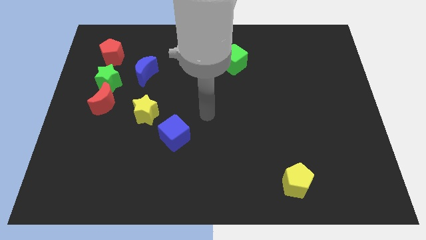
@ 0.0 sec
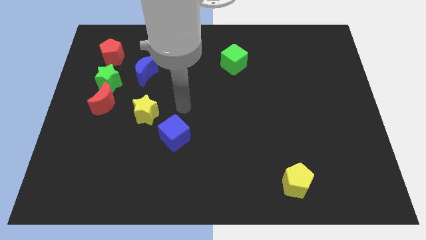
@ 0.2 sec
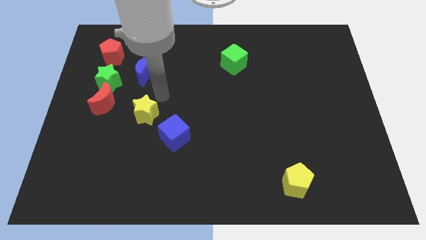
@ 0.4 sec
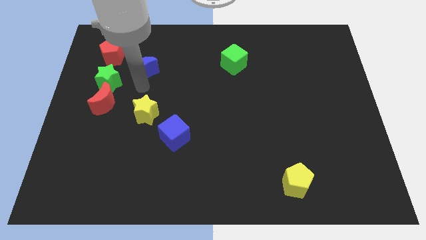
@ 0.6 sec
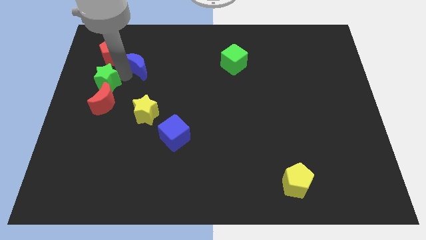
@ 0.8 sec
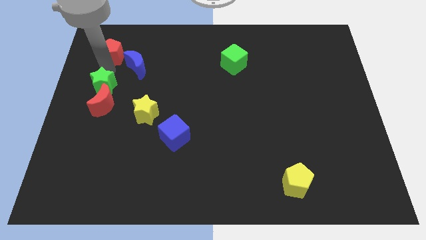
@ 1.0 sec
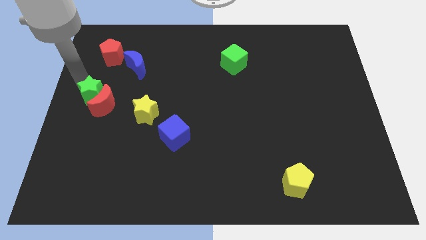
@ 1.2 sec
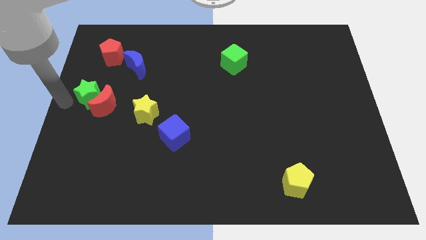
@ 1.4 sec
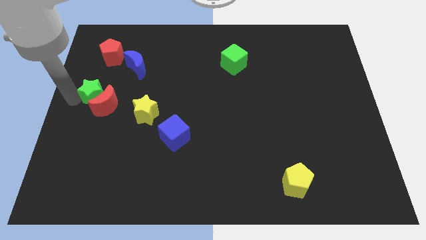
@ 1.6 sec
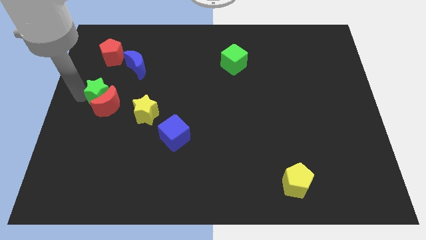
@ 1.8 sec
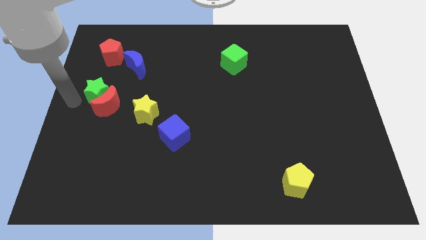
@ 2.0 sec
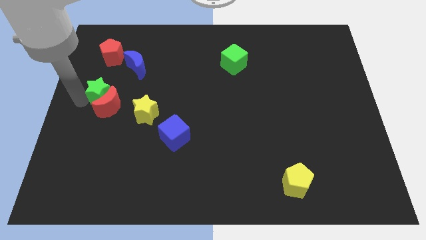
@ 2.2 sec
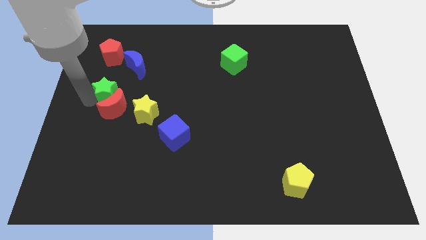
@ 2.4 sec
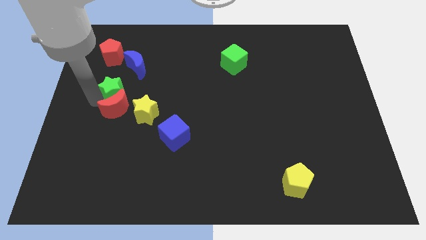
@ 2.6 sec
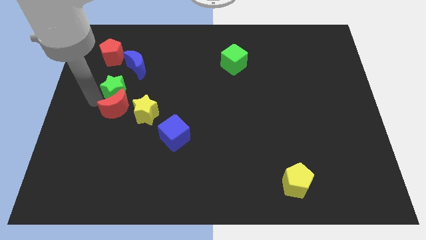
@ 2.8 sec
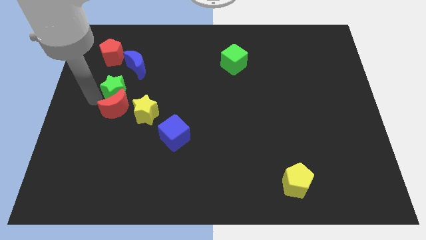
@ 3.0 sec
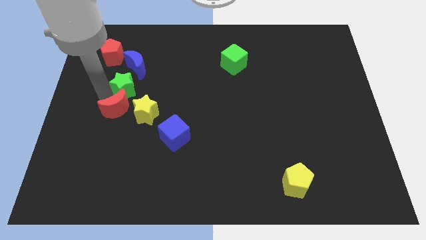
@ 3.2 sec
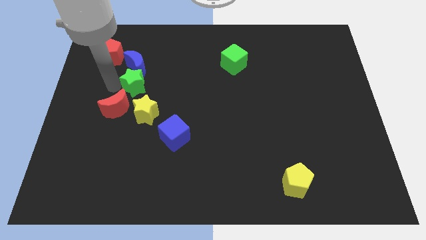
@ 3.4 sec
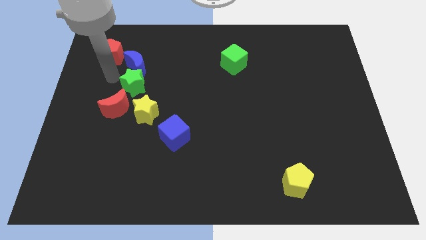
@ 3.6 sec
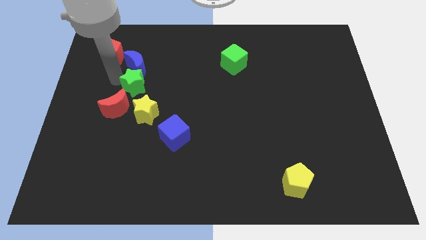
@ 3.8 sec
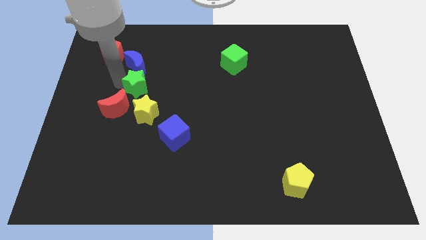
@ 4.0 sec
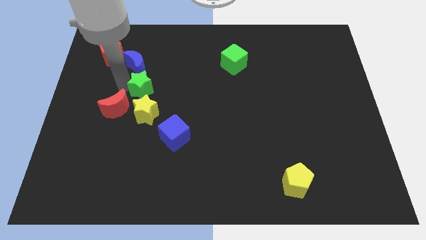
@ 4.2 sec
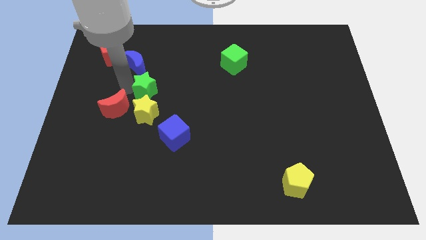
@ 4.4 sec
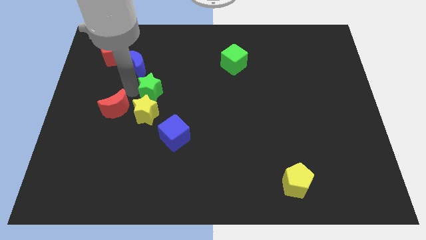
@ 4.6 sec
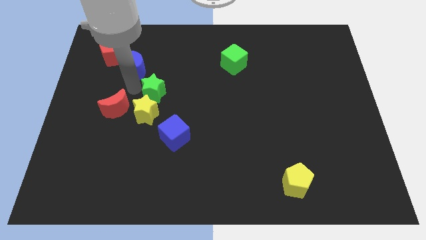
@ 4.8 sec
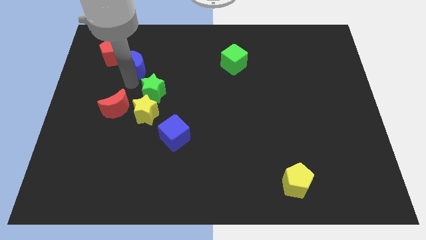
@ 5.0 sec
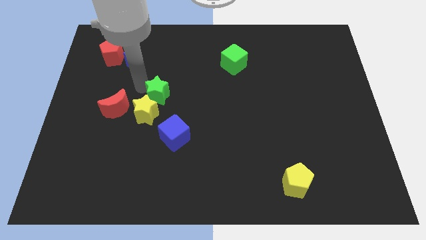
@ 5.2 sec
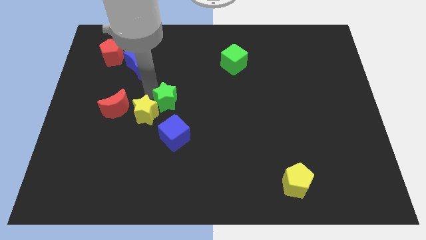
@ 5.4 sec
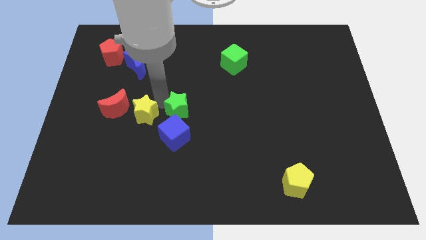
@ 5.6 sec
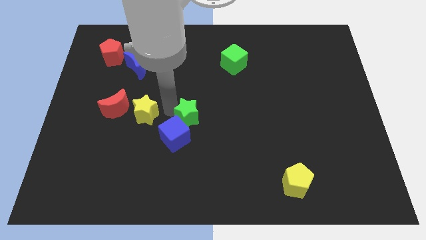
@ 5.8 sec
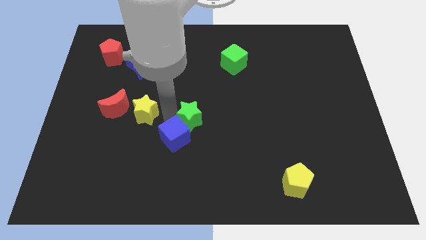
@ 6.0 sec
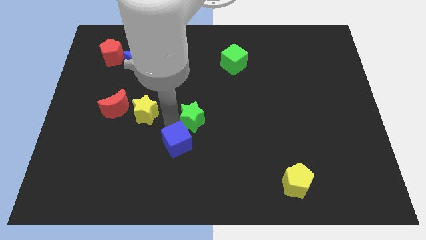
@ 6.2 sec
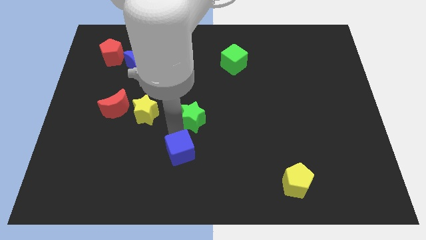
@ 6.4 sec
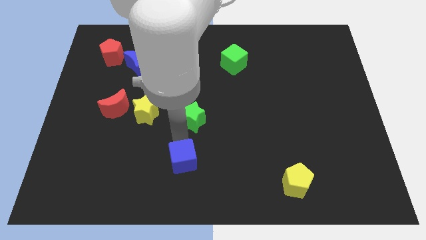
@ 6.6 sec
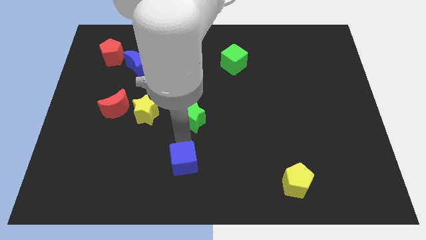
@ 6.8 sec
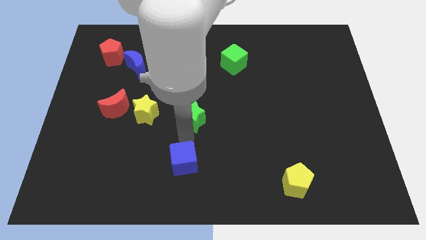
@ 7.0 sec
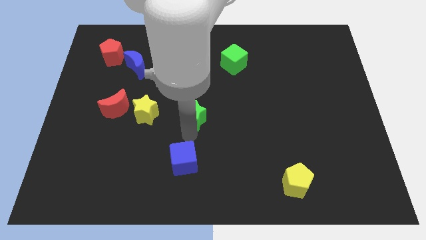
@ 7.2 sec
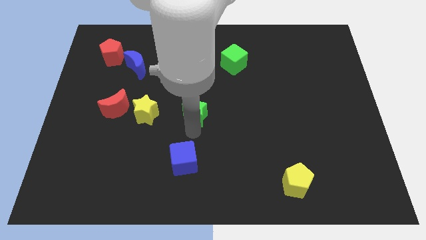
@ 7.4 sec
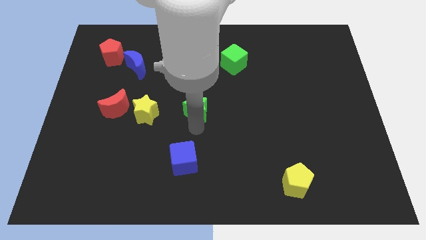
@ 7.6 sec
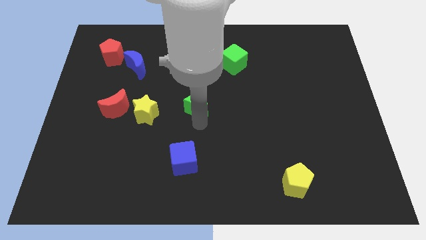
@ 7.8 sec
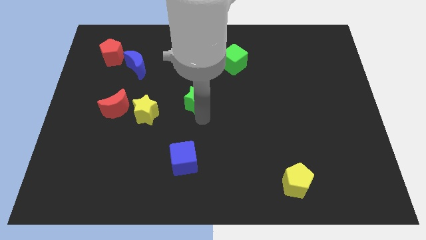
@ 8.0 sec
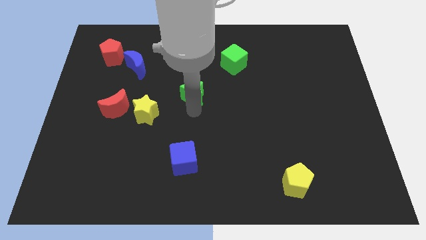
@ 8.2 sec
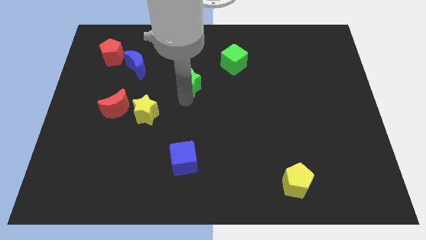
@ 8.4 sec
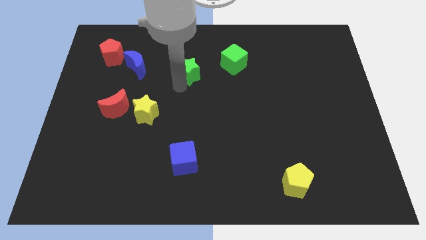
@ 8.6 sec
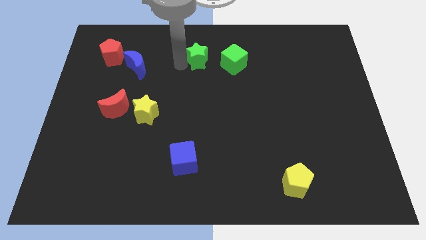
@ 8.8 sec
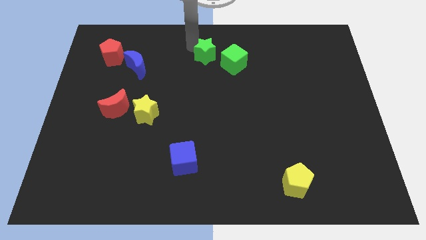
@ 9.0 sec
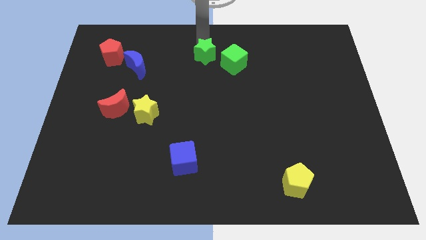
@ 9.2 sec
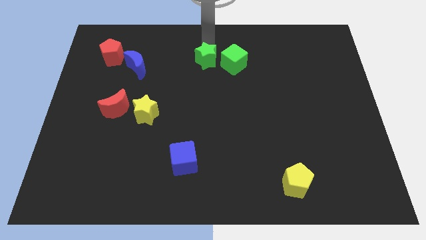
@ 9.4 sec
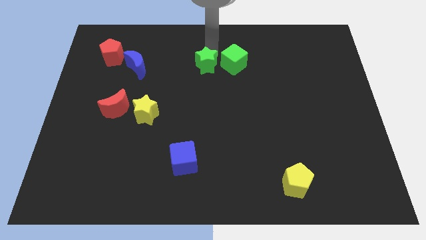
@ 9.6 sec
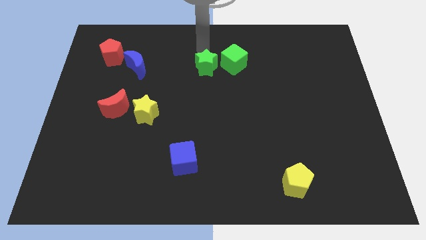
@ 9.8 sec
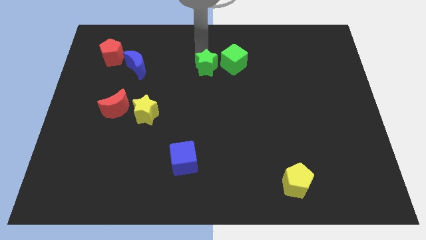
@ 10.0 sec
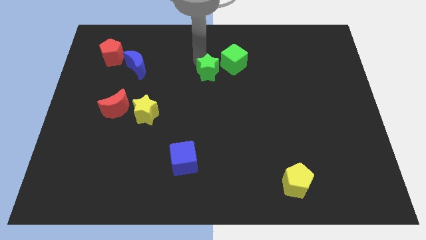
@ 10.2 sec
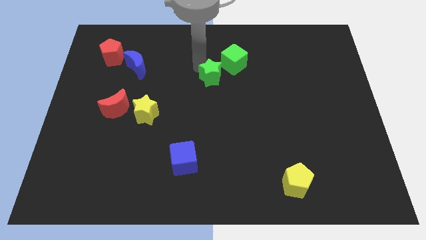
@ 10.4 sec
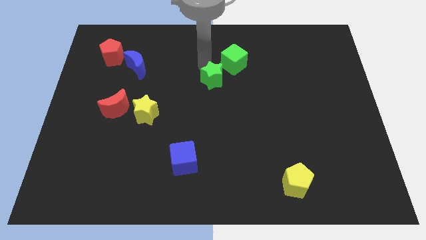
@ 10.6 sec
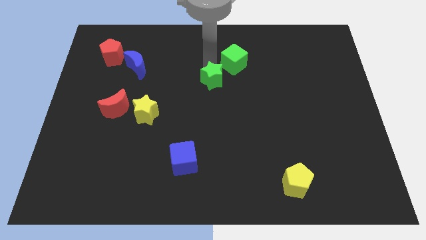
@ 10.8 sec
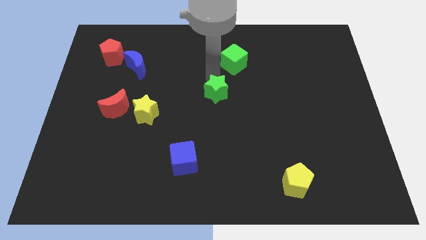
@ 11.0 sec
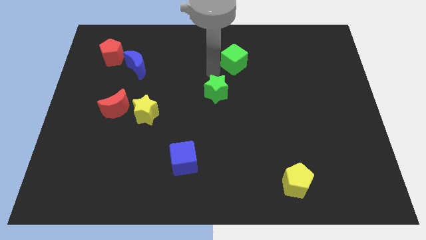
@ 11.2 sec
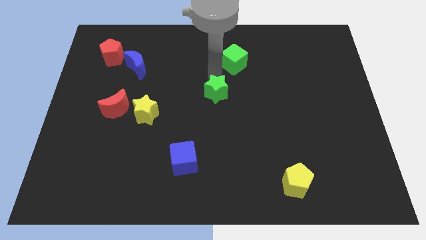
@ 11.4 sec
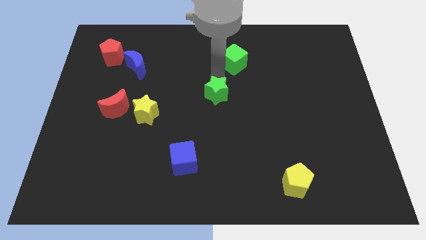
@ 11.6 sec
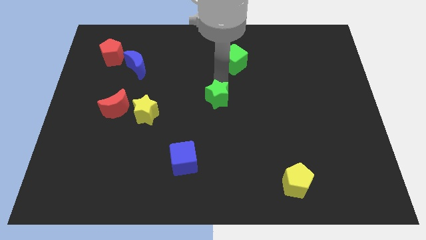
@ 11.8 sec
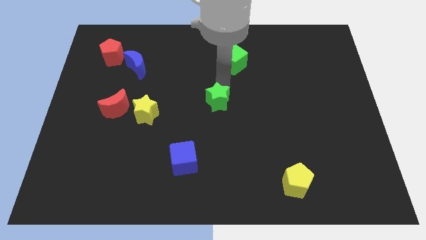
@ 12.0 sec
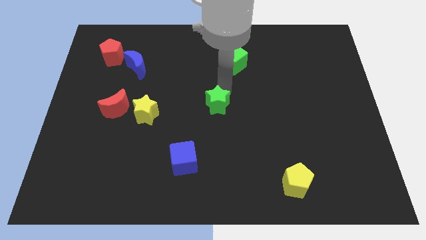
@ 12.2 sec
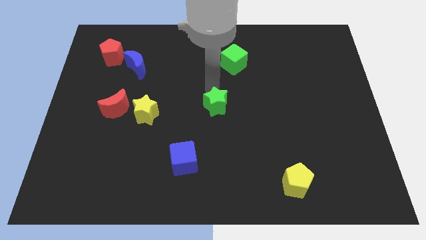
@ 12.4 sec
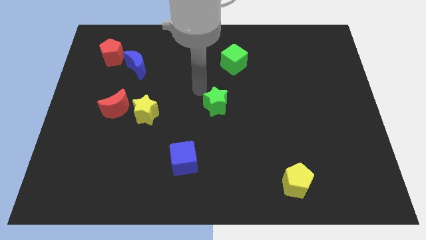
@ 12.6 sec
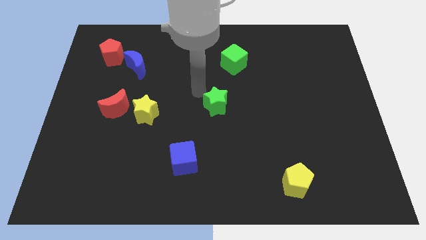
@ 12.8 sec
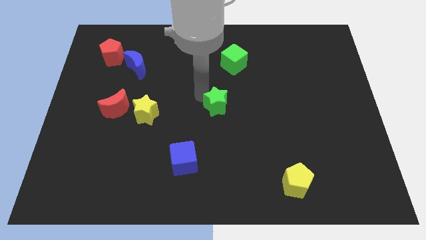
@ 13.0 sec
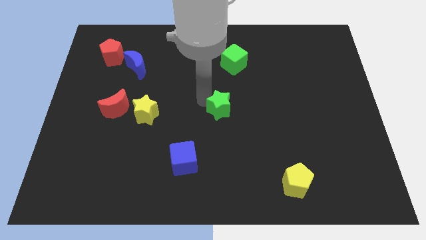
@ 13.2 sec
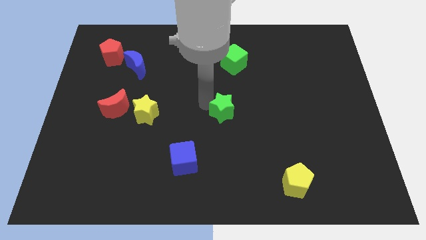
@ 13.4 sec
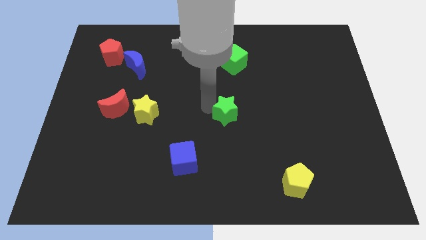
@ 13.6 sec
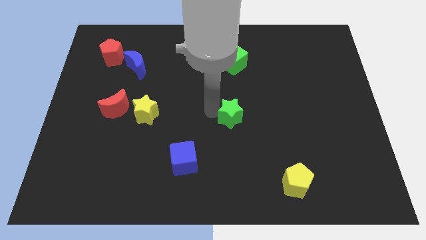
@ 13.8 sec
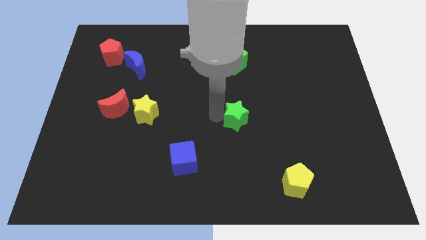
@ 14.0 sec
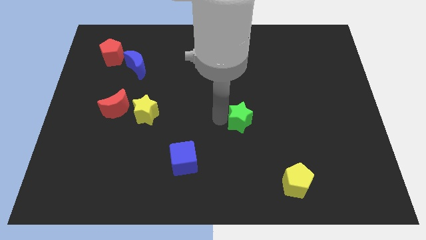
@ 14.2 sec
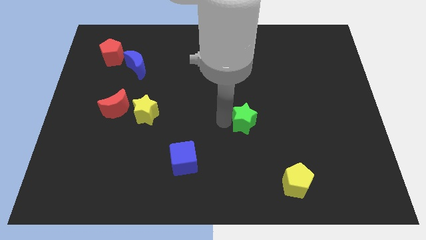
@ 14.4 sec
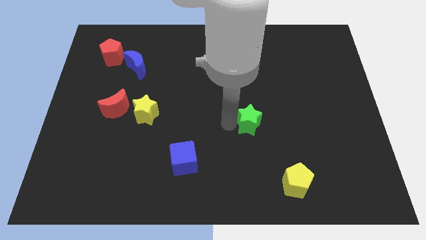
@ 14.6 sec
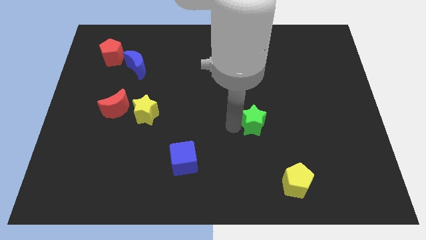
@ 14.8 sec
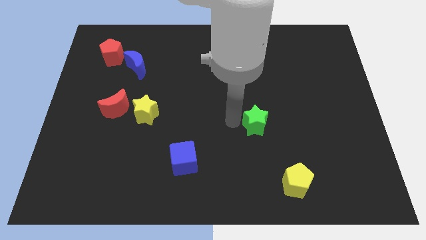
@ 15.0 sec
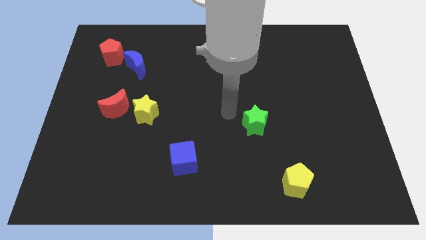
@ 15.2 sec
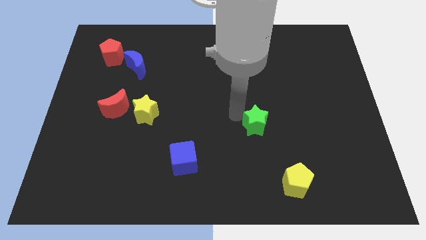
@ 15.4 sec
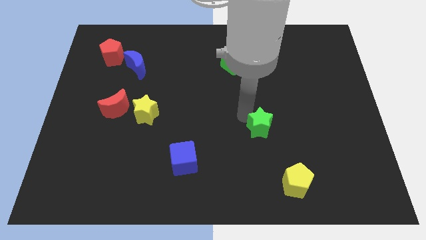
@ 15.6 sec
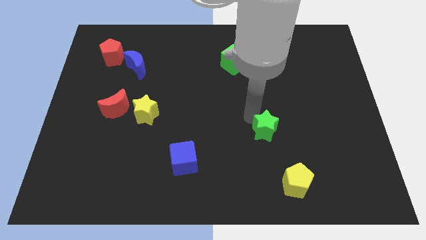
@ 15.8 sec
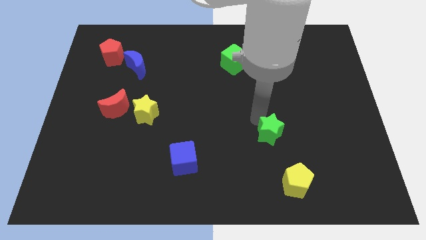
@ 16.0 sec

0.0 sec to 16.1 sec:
move the green star above the yellow pentagon

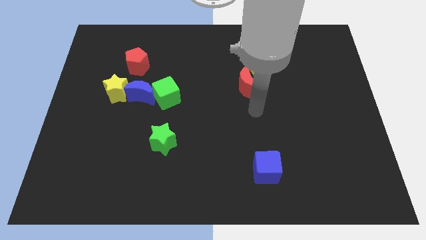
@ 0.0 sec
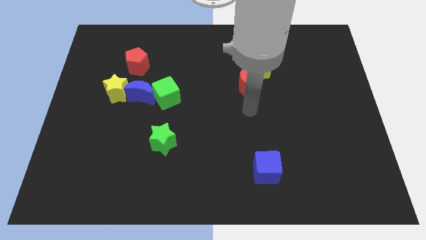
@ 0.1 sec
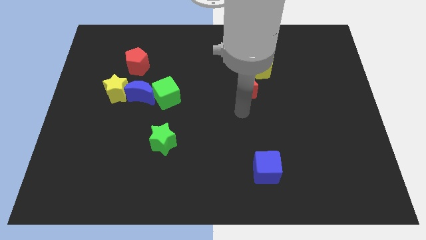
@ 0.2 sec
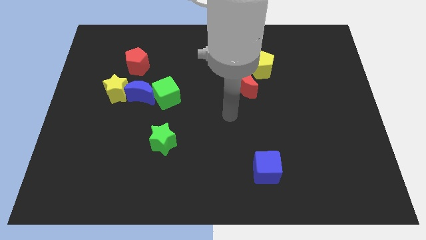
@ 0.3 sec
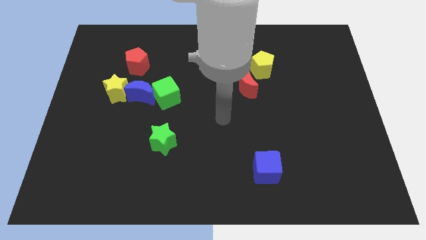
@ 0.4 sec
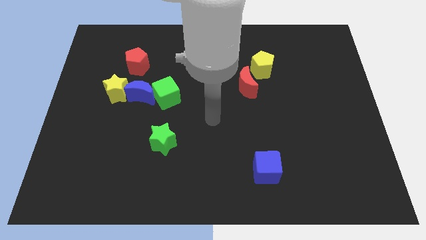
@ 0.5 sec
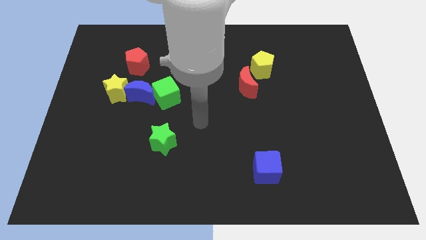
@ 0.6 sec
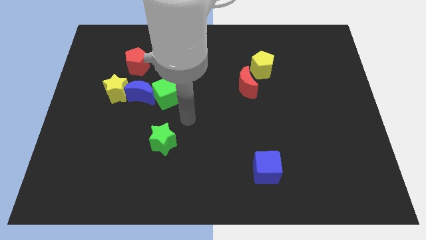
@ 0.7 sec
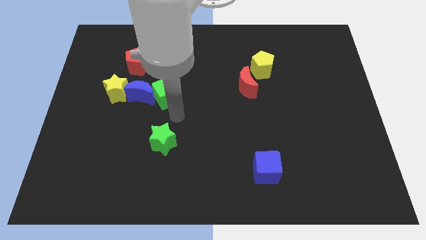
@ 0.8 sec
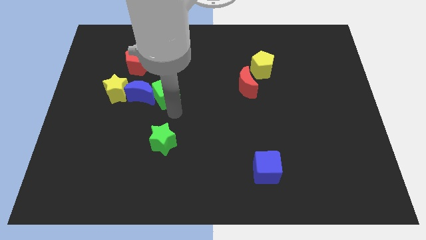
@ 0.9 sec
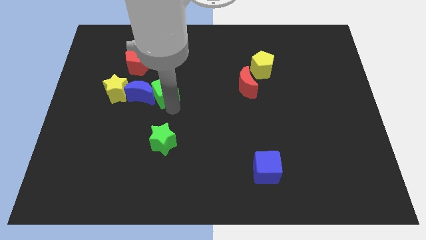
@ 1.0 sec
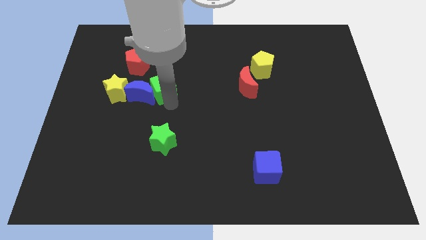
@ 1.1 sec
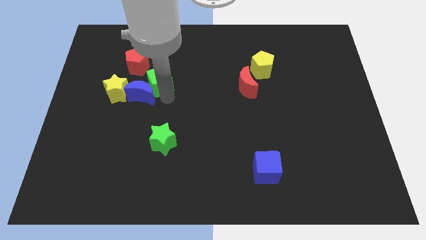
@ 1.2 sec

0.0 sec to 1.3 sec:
push the green cube to the top of the blue moon
